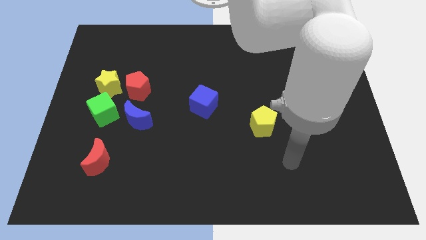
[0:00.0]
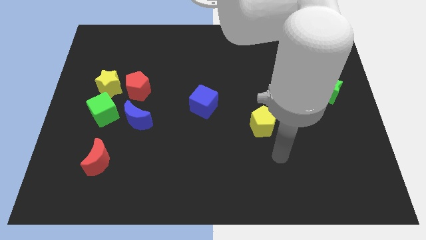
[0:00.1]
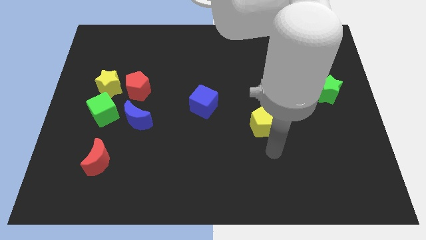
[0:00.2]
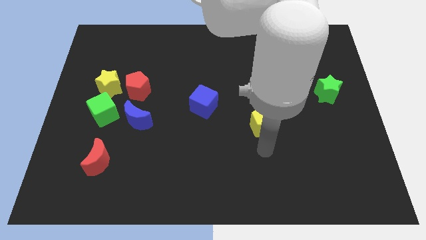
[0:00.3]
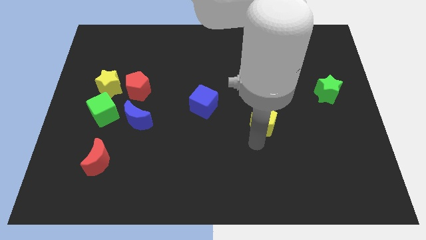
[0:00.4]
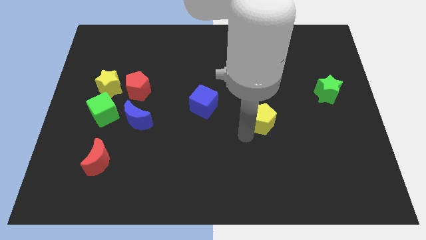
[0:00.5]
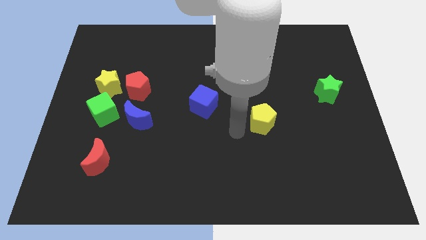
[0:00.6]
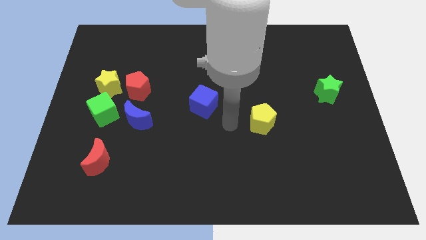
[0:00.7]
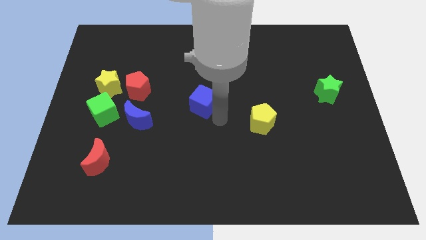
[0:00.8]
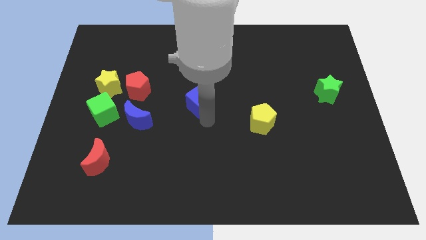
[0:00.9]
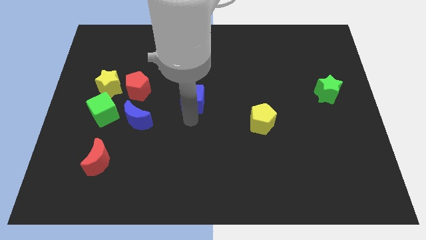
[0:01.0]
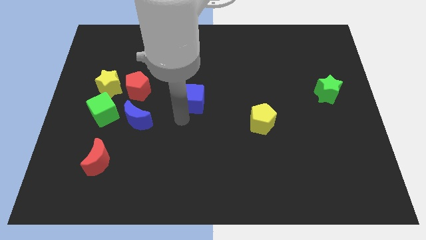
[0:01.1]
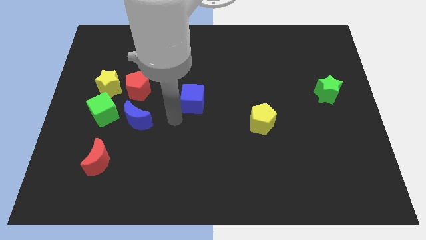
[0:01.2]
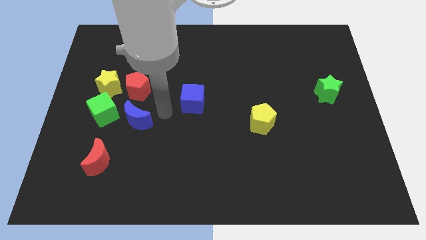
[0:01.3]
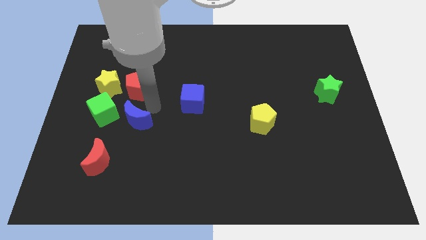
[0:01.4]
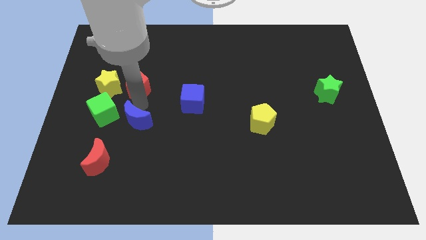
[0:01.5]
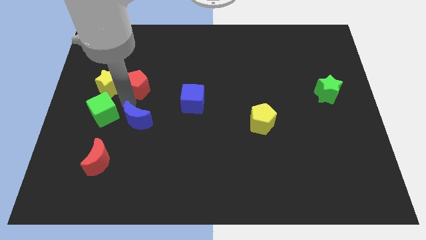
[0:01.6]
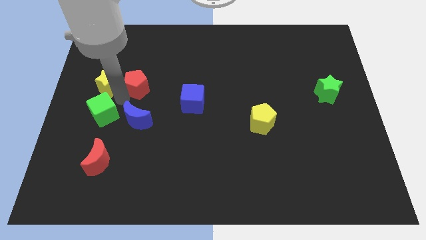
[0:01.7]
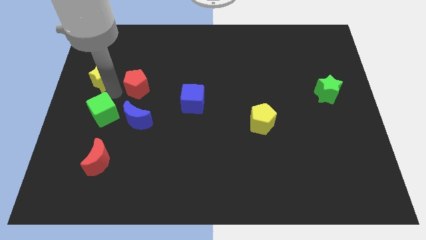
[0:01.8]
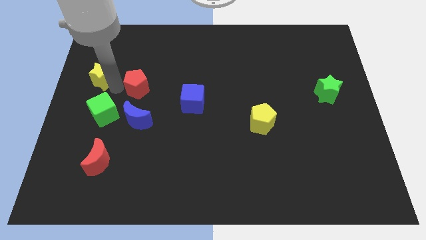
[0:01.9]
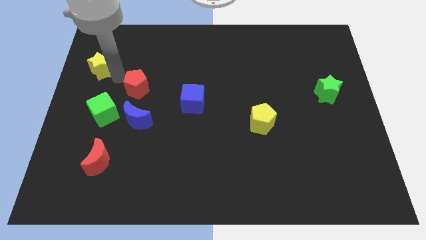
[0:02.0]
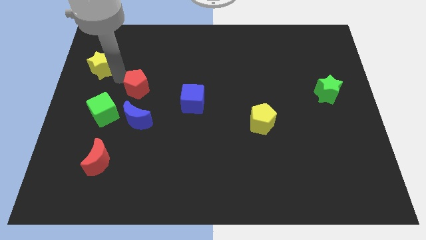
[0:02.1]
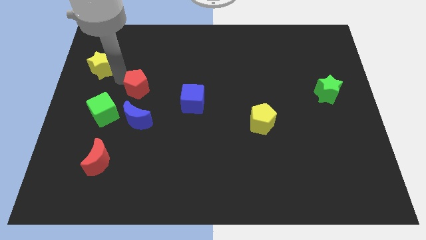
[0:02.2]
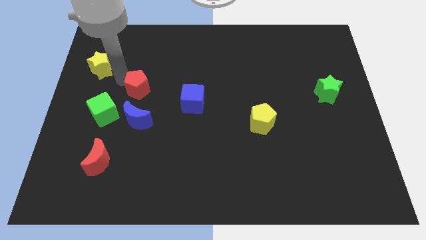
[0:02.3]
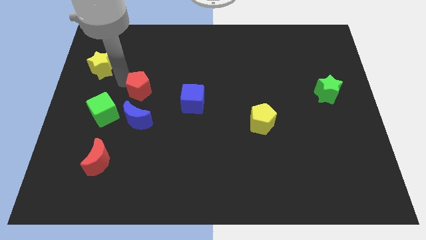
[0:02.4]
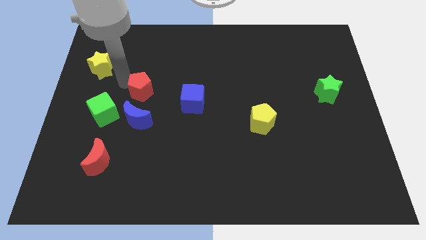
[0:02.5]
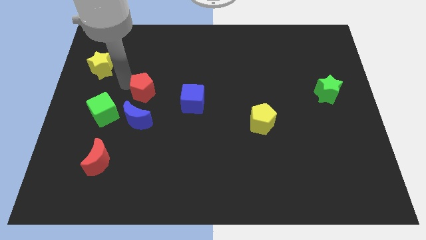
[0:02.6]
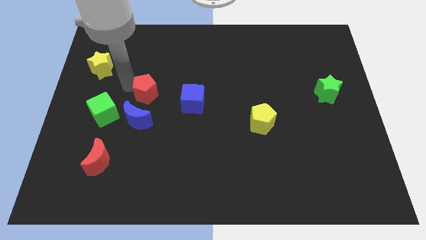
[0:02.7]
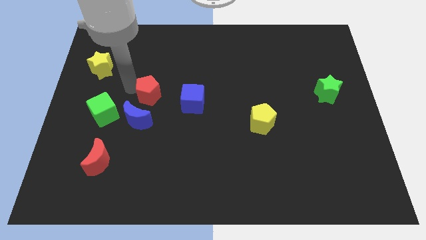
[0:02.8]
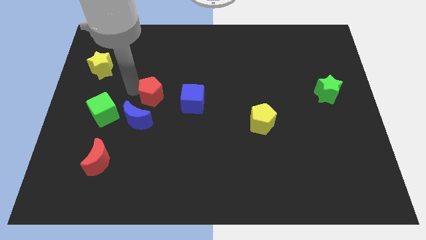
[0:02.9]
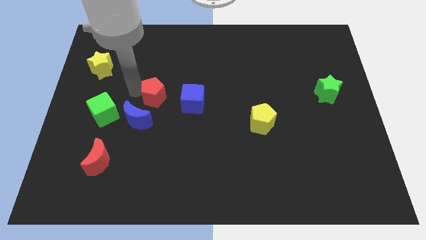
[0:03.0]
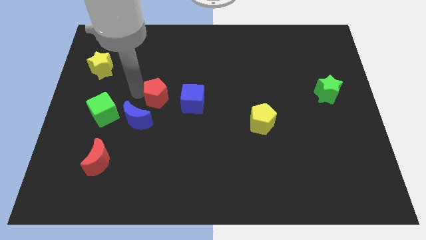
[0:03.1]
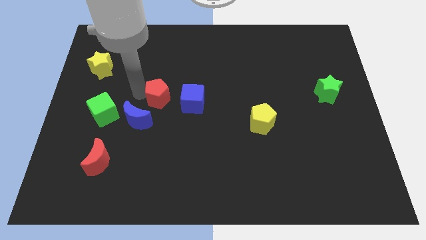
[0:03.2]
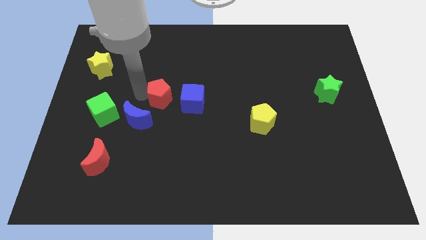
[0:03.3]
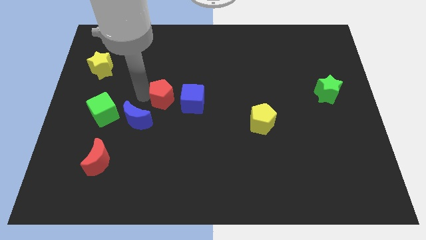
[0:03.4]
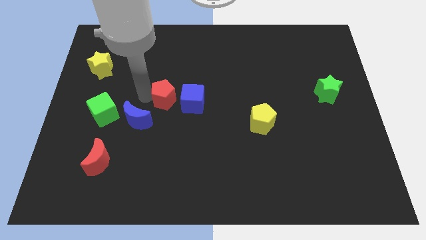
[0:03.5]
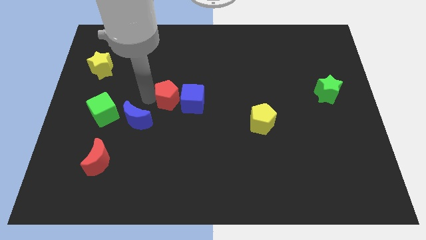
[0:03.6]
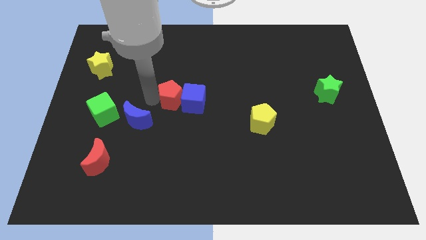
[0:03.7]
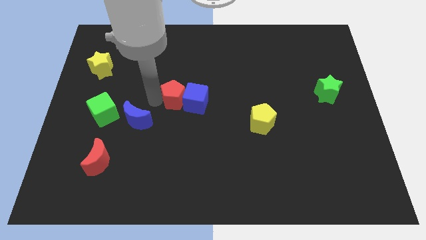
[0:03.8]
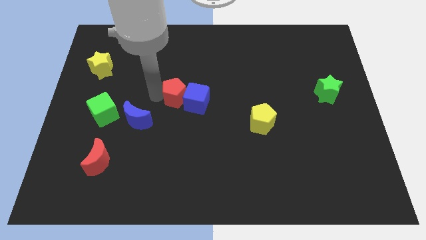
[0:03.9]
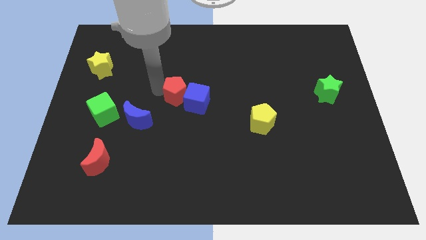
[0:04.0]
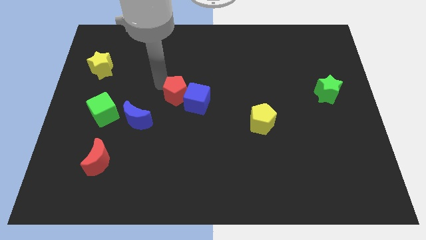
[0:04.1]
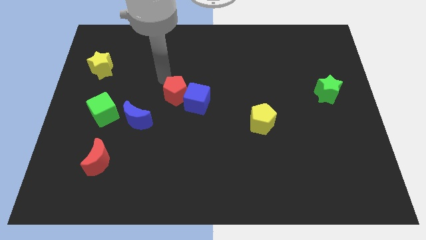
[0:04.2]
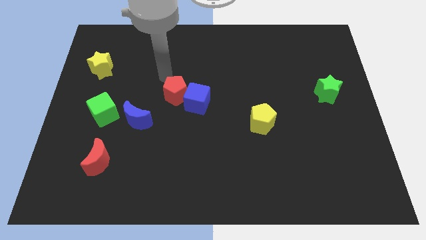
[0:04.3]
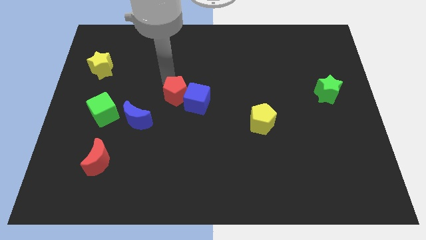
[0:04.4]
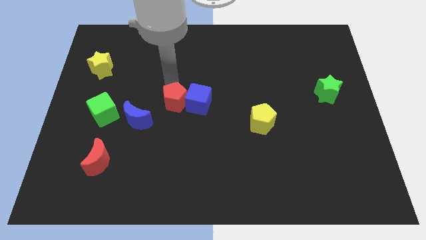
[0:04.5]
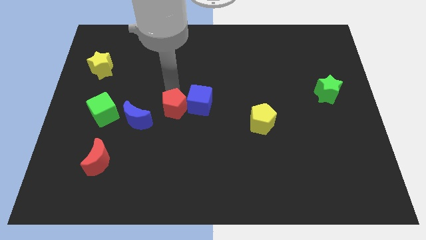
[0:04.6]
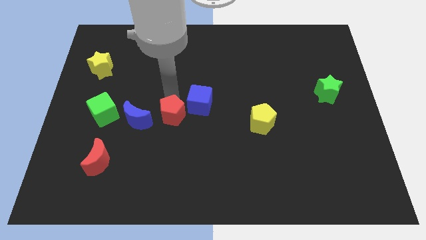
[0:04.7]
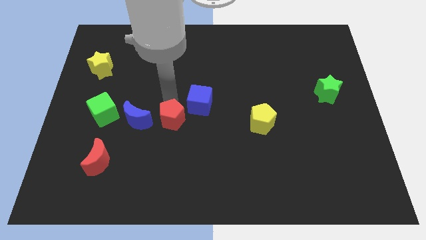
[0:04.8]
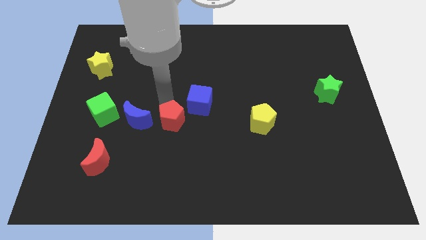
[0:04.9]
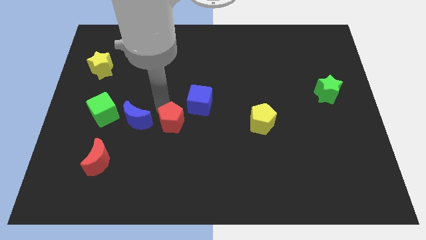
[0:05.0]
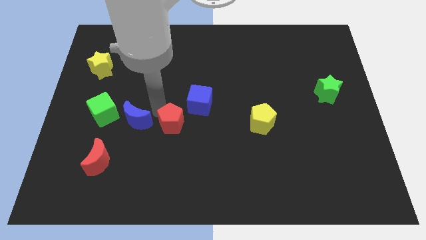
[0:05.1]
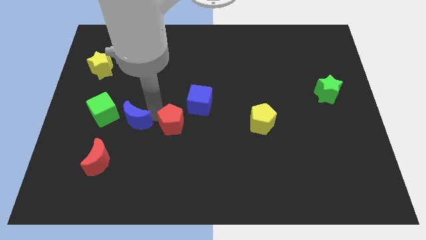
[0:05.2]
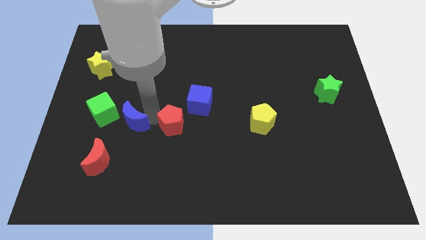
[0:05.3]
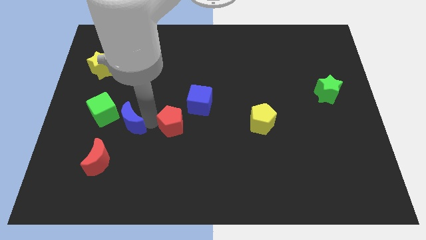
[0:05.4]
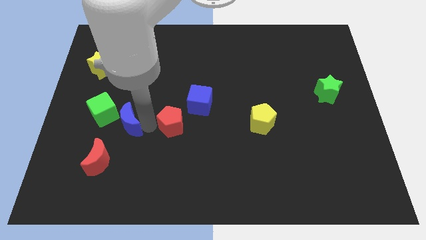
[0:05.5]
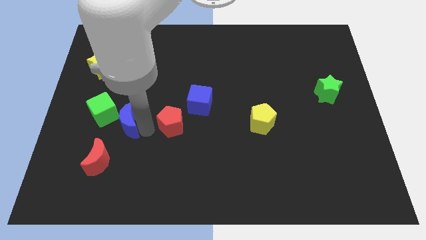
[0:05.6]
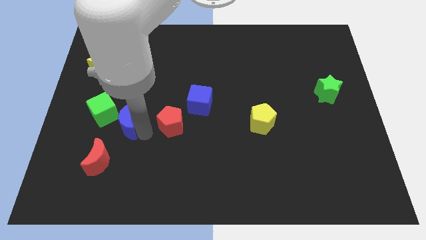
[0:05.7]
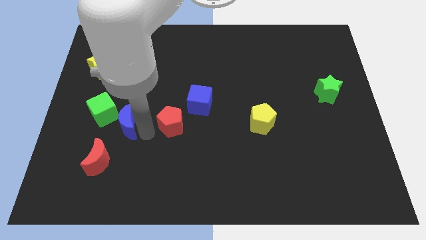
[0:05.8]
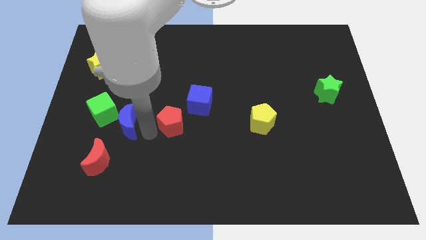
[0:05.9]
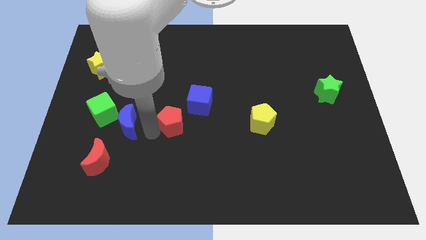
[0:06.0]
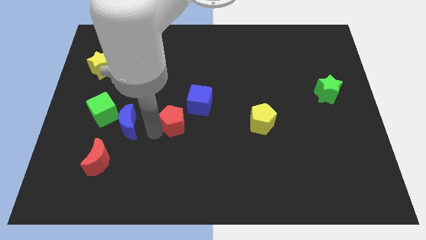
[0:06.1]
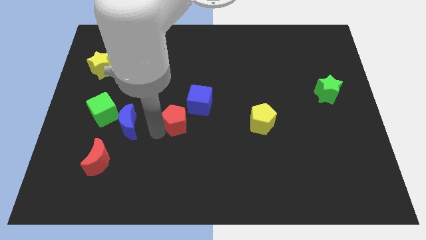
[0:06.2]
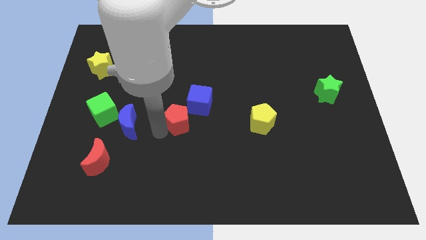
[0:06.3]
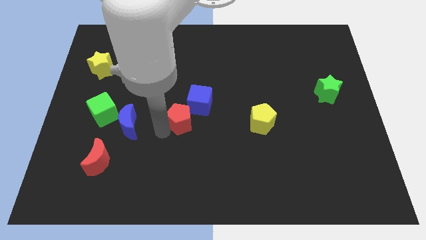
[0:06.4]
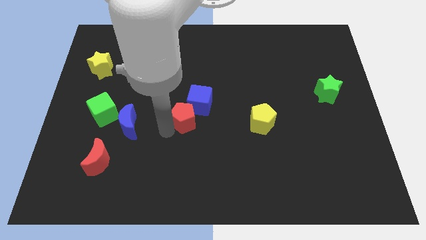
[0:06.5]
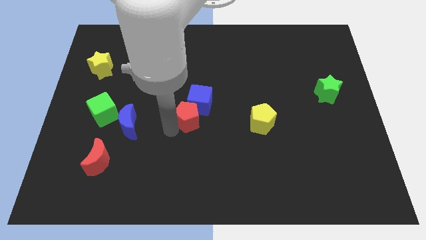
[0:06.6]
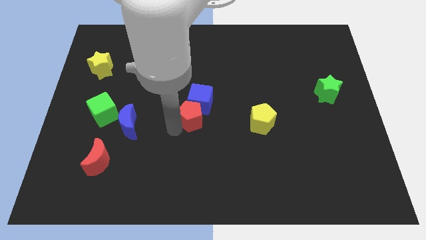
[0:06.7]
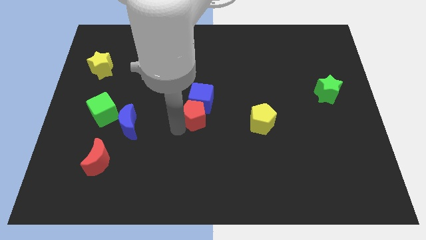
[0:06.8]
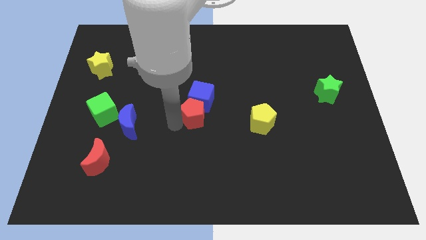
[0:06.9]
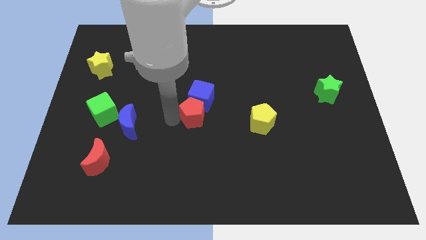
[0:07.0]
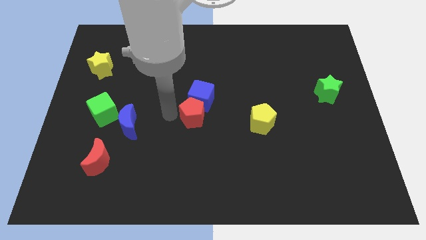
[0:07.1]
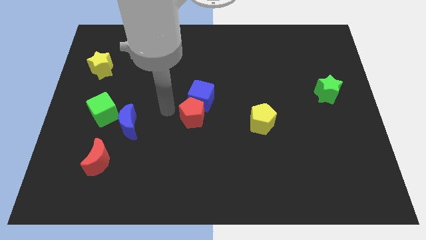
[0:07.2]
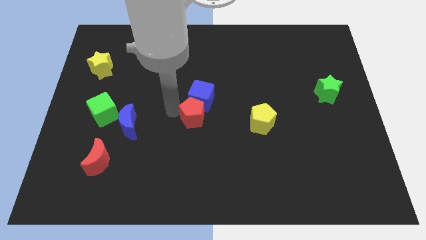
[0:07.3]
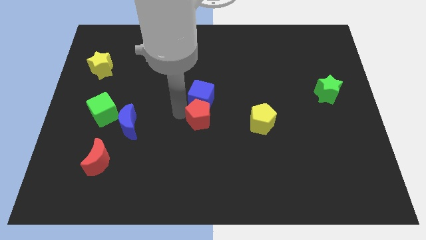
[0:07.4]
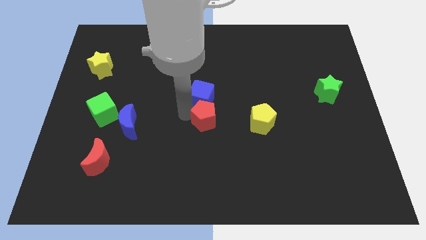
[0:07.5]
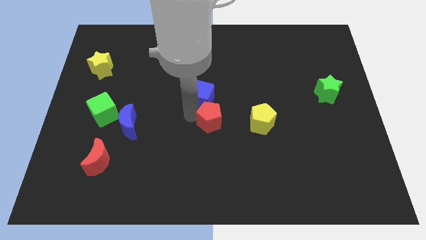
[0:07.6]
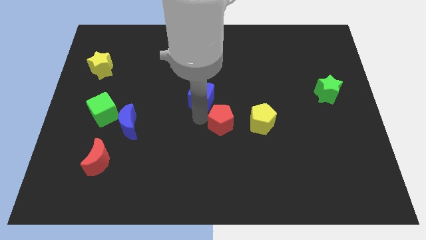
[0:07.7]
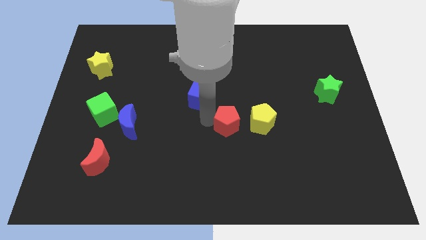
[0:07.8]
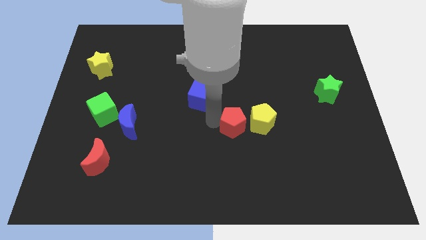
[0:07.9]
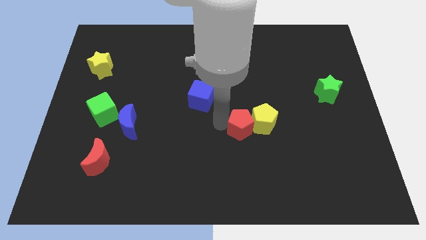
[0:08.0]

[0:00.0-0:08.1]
move the red pentagon to the yellow pentagon
